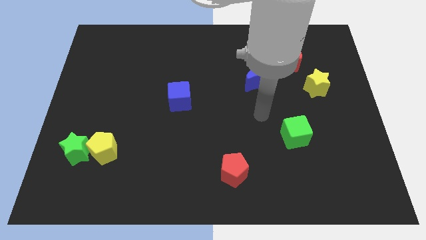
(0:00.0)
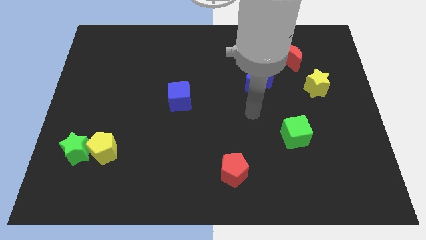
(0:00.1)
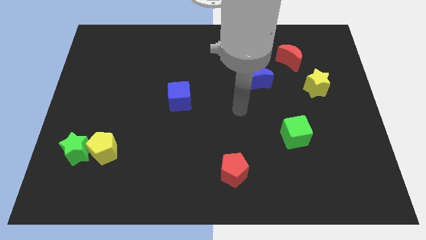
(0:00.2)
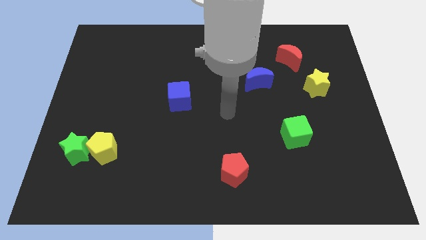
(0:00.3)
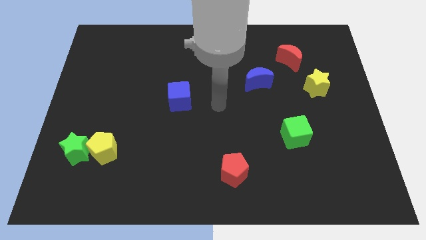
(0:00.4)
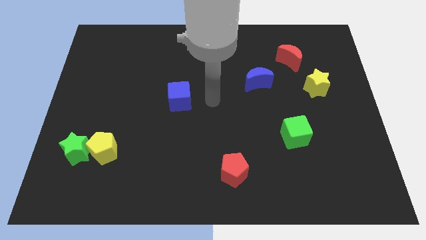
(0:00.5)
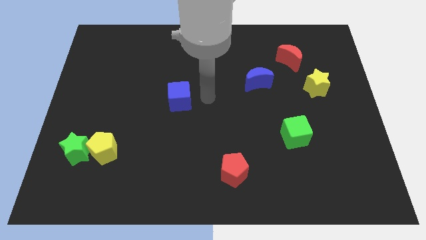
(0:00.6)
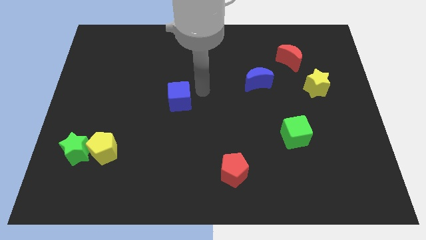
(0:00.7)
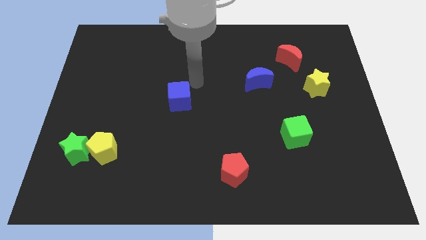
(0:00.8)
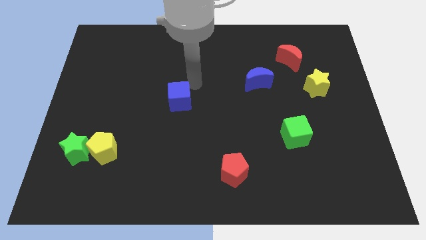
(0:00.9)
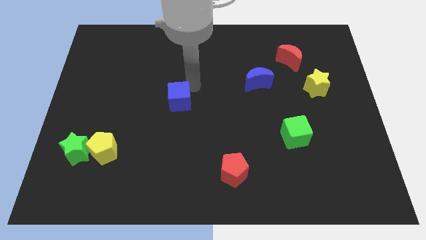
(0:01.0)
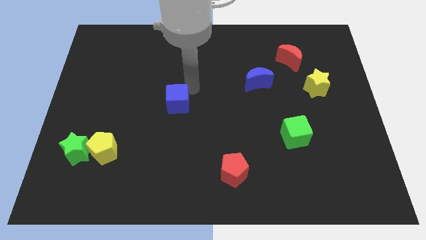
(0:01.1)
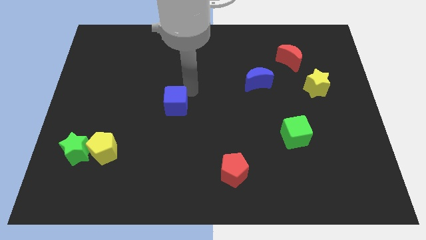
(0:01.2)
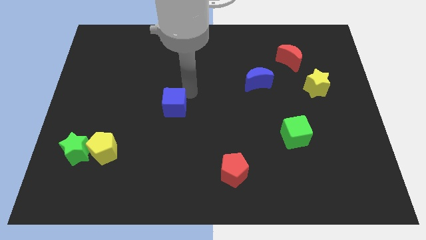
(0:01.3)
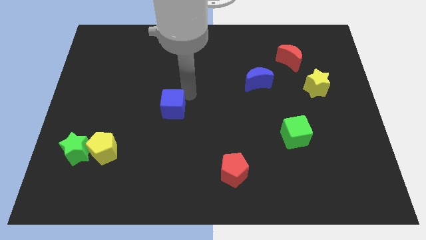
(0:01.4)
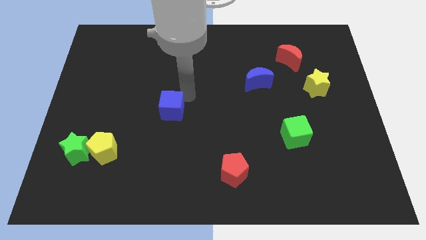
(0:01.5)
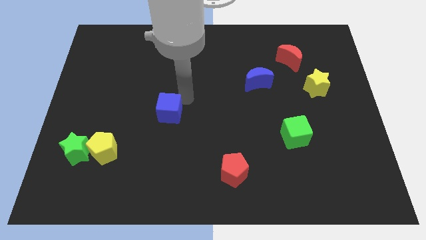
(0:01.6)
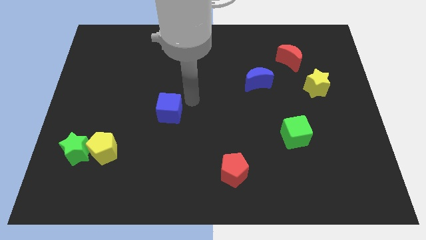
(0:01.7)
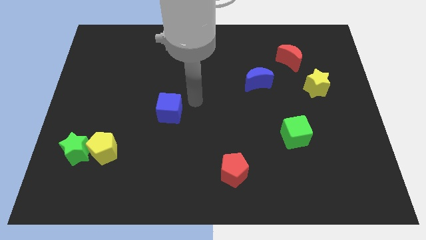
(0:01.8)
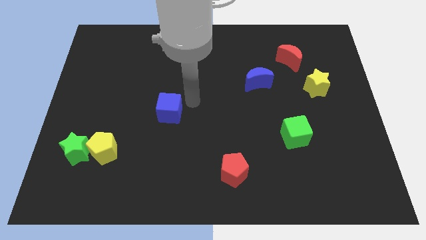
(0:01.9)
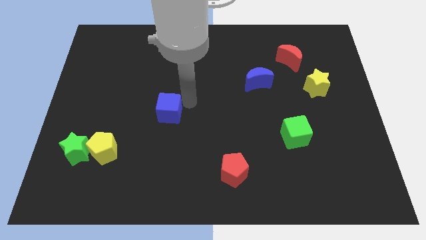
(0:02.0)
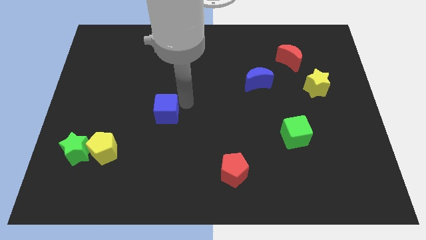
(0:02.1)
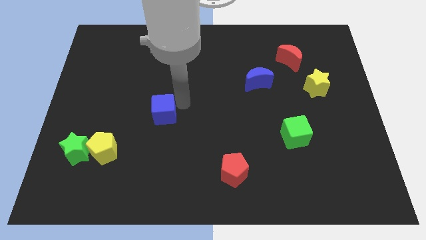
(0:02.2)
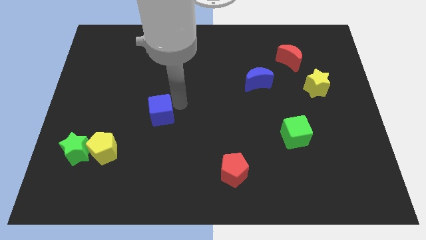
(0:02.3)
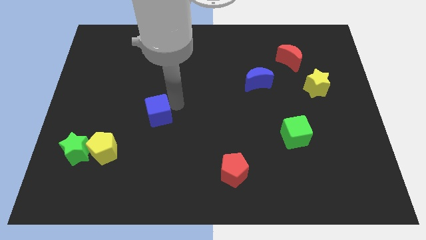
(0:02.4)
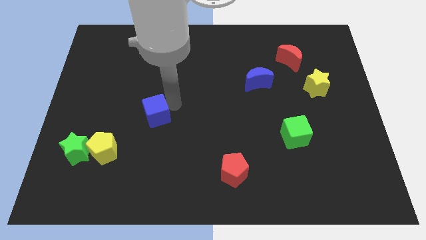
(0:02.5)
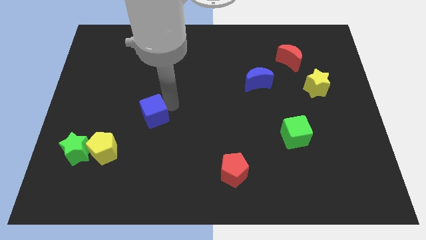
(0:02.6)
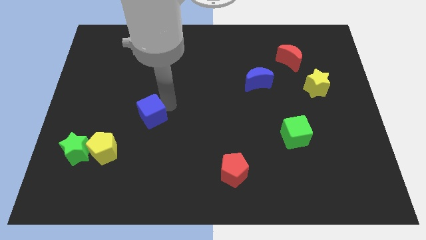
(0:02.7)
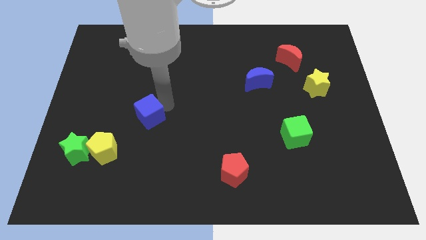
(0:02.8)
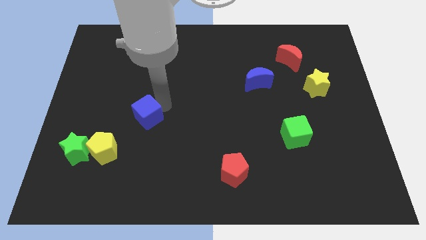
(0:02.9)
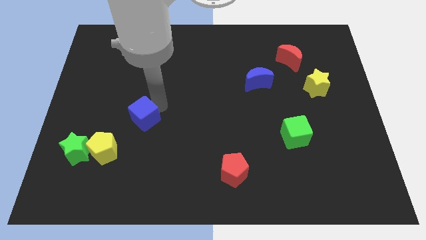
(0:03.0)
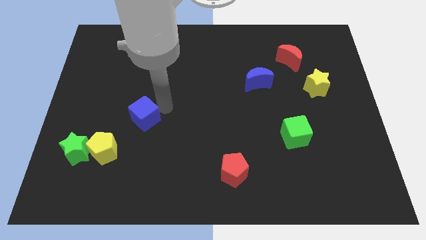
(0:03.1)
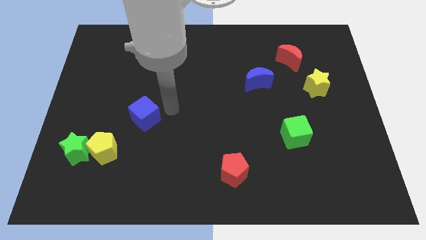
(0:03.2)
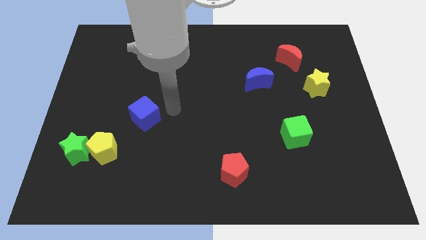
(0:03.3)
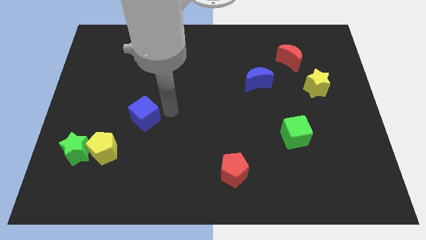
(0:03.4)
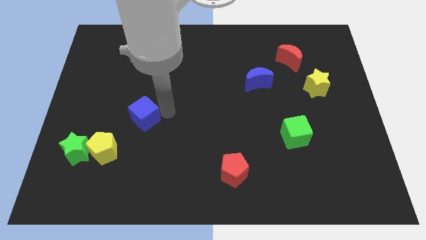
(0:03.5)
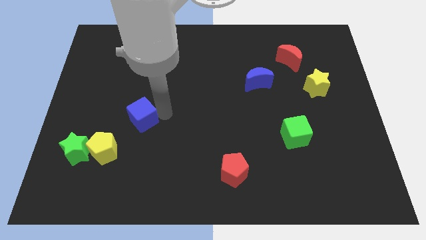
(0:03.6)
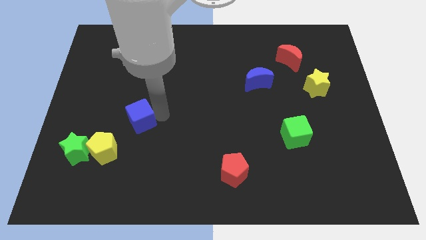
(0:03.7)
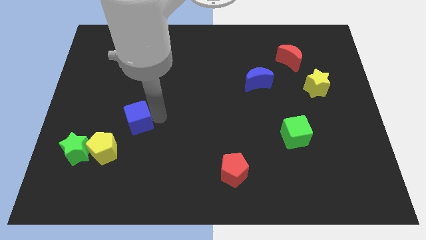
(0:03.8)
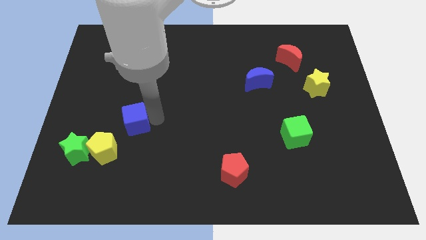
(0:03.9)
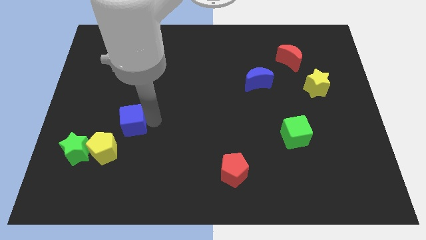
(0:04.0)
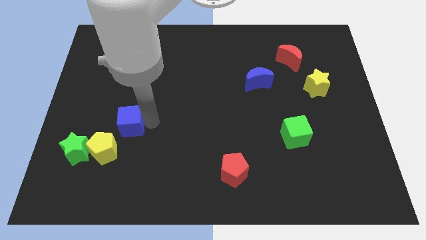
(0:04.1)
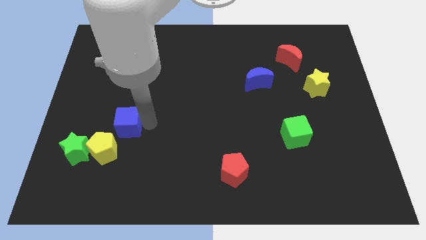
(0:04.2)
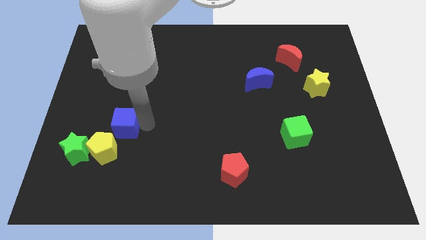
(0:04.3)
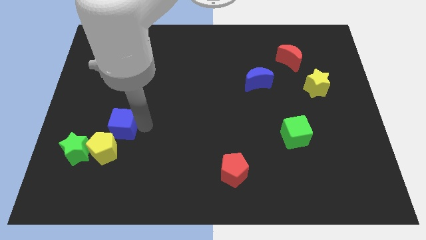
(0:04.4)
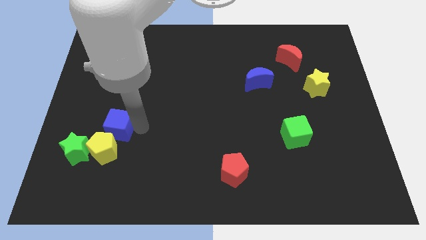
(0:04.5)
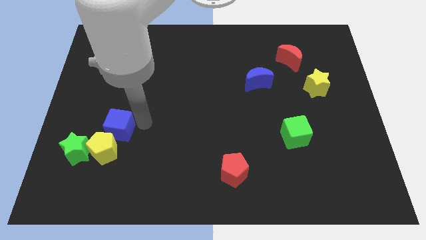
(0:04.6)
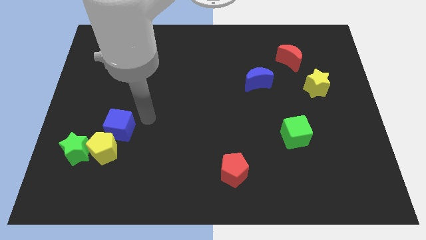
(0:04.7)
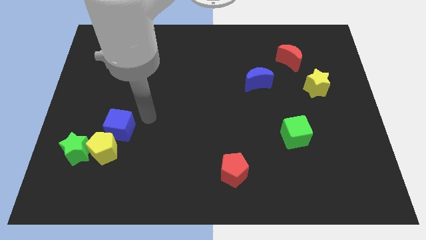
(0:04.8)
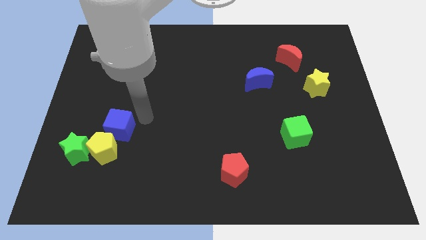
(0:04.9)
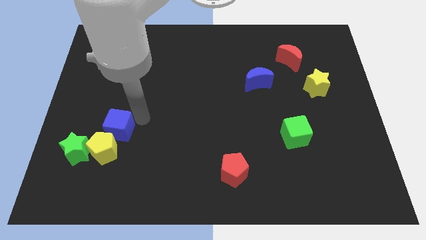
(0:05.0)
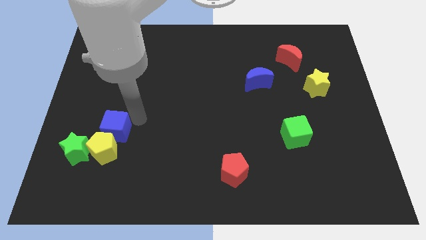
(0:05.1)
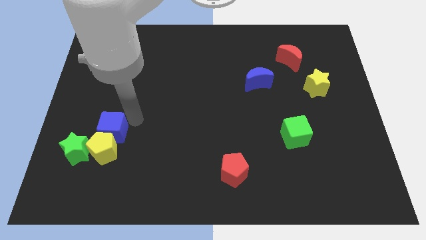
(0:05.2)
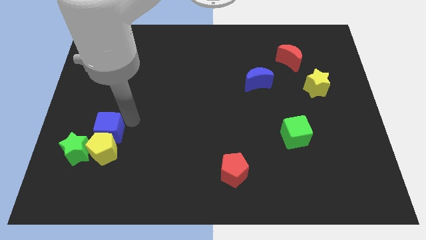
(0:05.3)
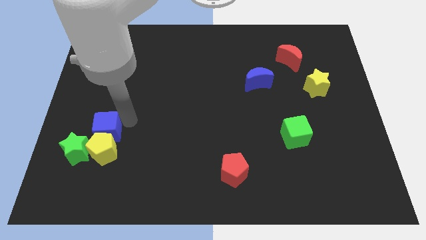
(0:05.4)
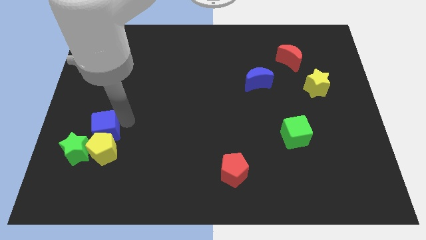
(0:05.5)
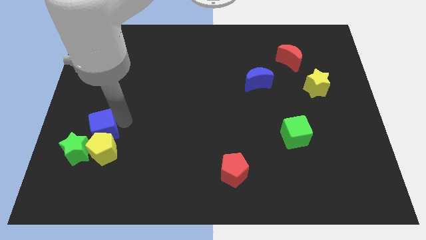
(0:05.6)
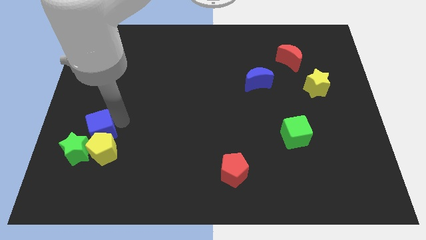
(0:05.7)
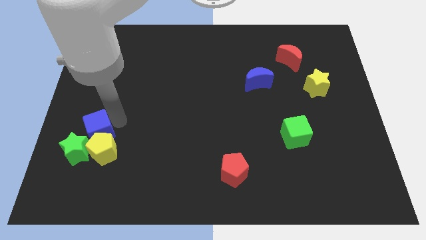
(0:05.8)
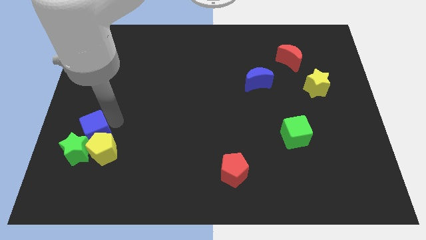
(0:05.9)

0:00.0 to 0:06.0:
slide the blue cube towards the green star

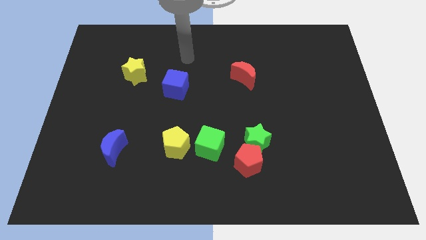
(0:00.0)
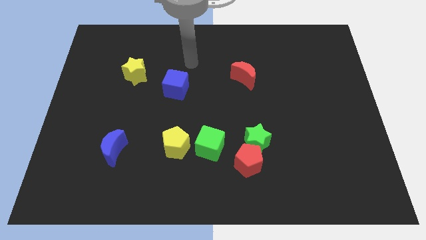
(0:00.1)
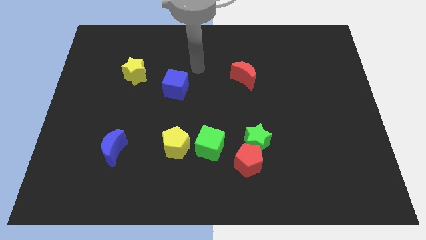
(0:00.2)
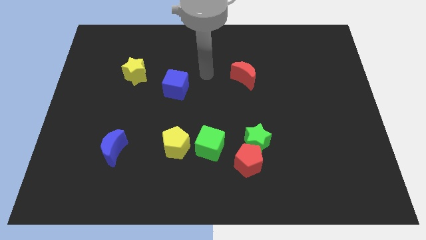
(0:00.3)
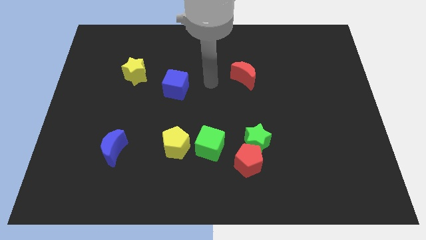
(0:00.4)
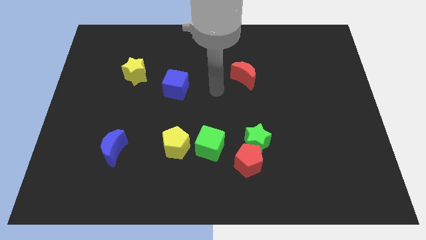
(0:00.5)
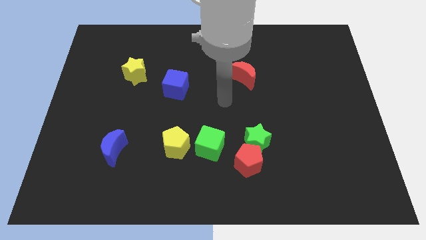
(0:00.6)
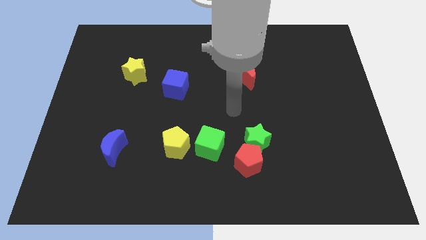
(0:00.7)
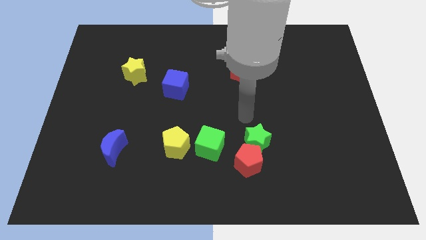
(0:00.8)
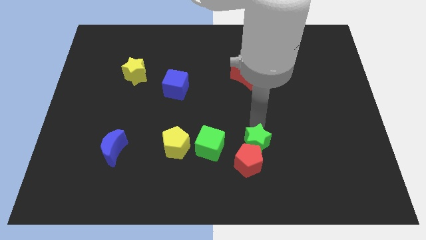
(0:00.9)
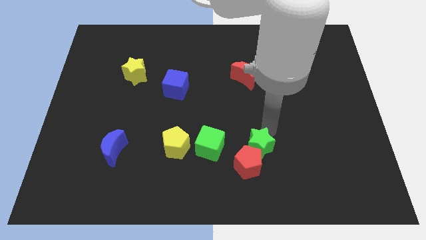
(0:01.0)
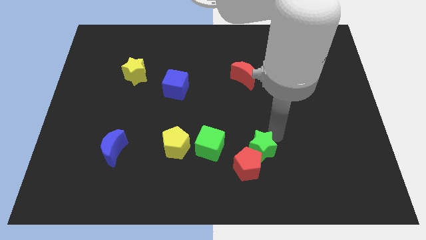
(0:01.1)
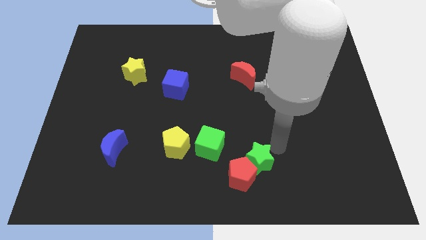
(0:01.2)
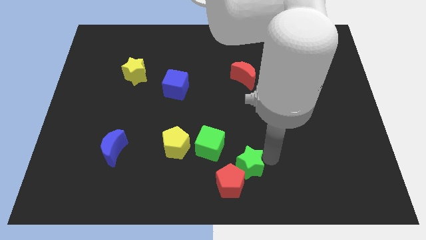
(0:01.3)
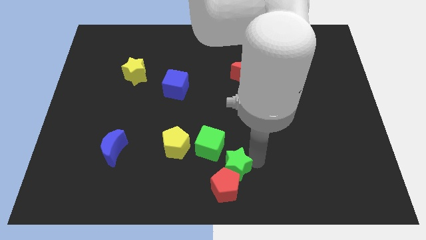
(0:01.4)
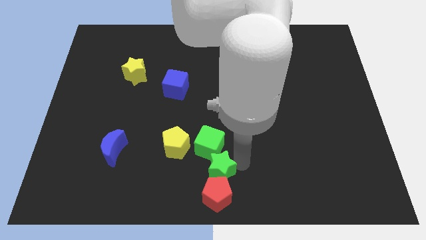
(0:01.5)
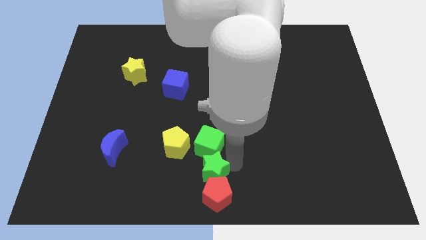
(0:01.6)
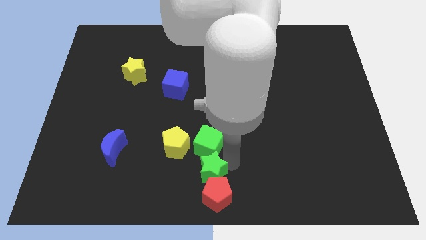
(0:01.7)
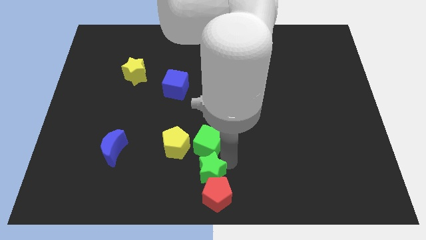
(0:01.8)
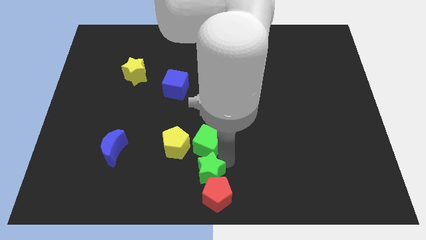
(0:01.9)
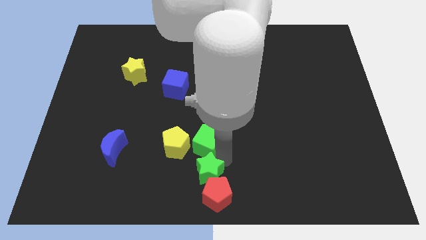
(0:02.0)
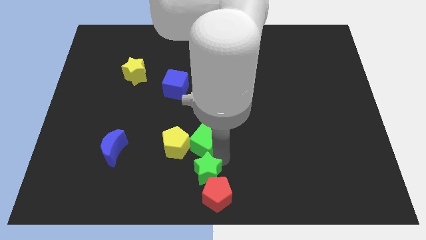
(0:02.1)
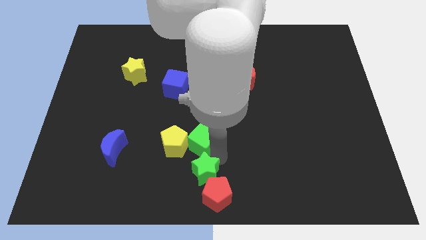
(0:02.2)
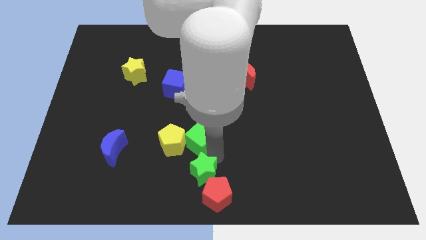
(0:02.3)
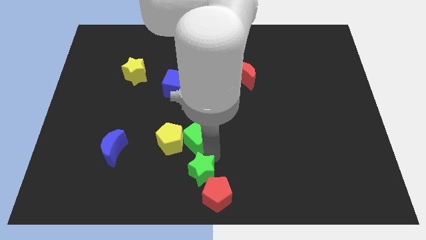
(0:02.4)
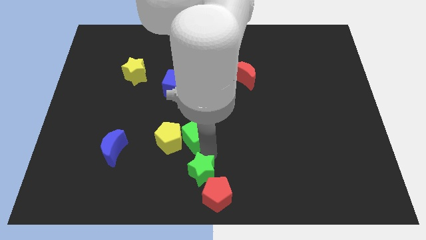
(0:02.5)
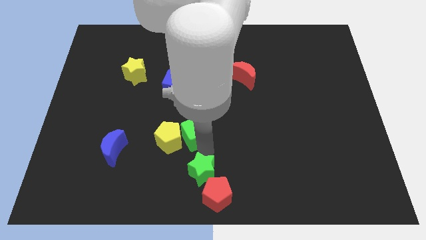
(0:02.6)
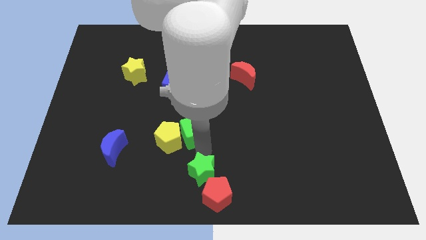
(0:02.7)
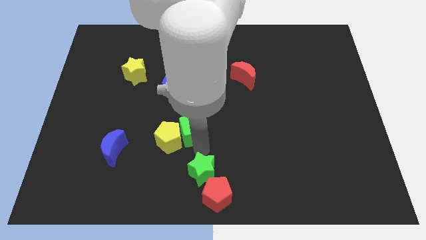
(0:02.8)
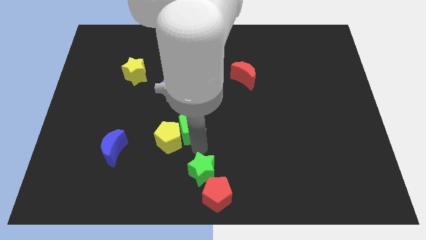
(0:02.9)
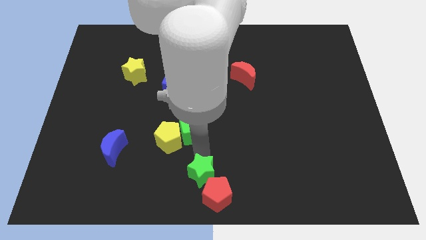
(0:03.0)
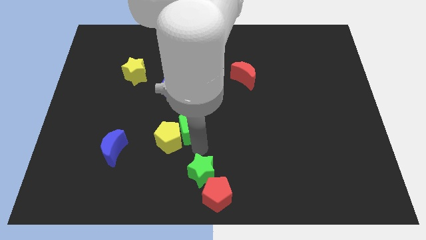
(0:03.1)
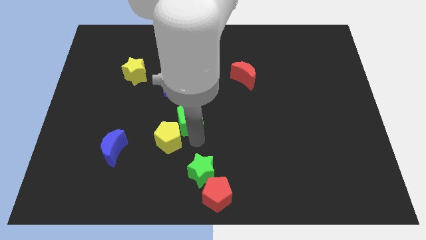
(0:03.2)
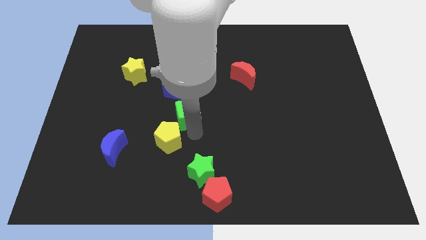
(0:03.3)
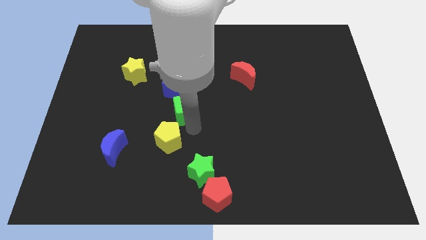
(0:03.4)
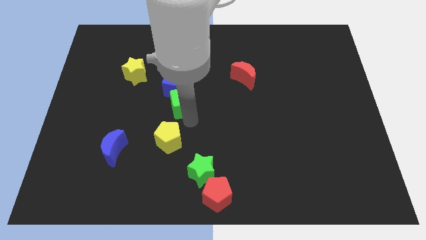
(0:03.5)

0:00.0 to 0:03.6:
put the green cube close to the blue cube
